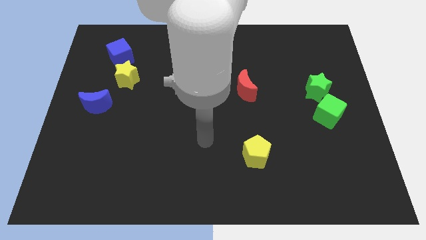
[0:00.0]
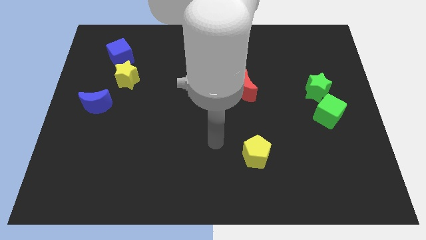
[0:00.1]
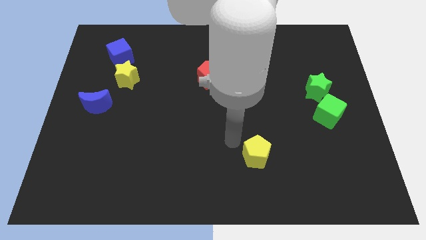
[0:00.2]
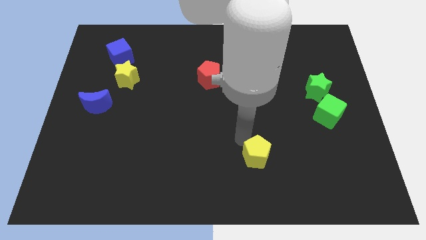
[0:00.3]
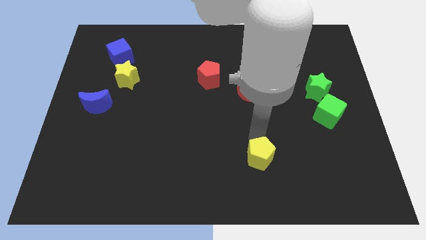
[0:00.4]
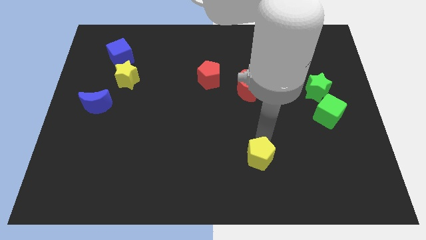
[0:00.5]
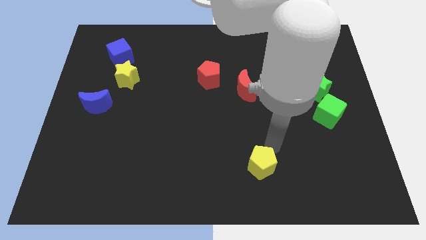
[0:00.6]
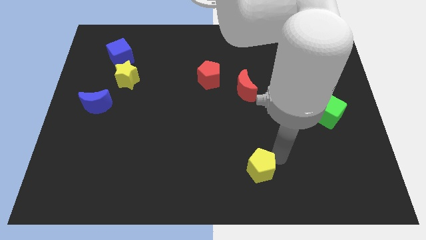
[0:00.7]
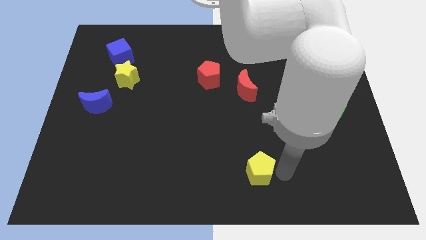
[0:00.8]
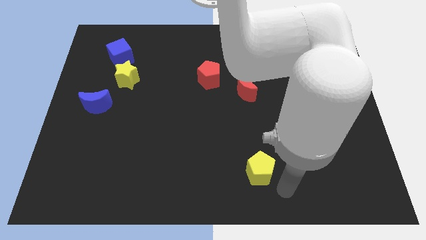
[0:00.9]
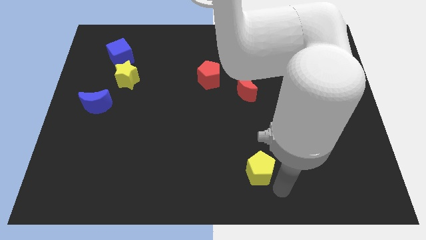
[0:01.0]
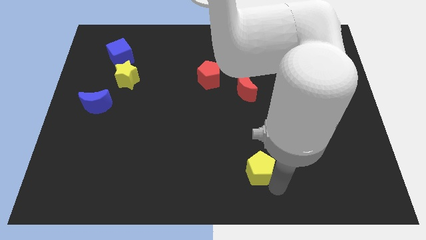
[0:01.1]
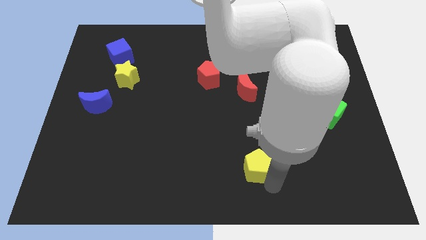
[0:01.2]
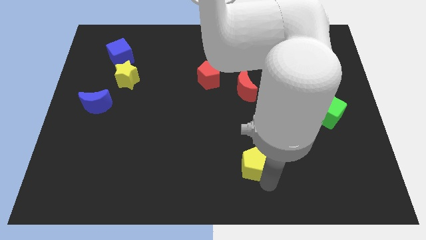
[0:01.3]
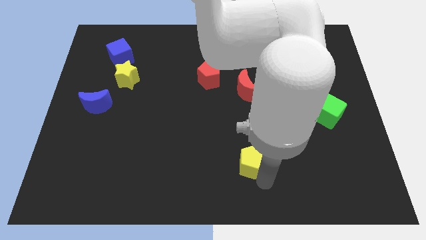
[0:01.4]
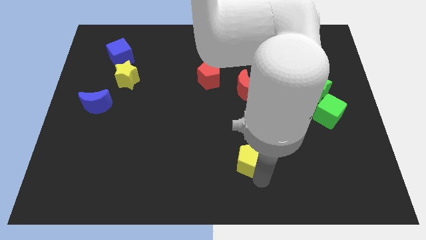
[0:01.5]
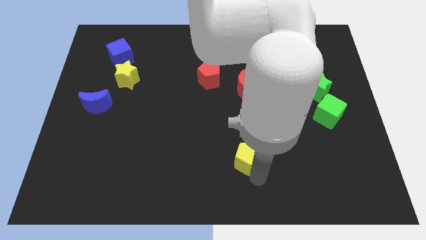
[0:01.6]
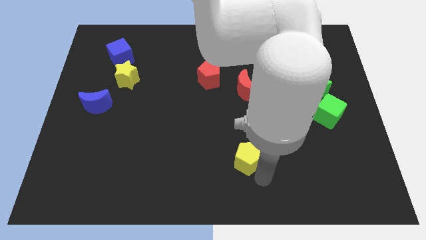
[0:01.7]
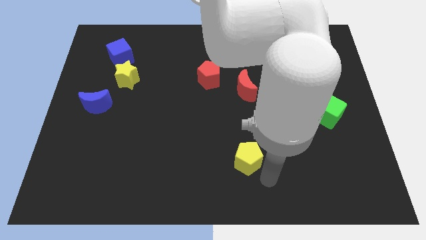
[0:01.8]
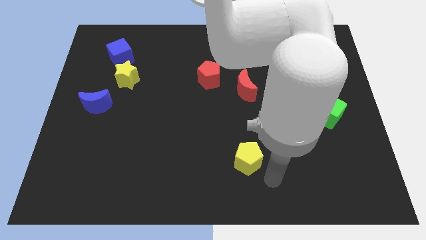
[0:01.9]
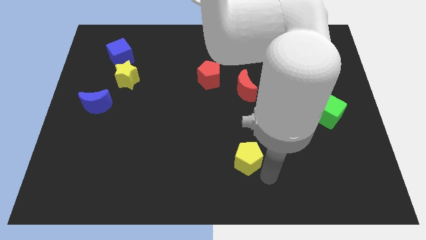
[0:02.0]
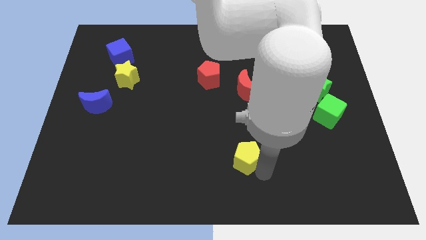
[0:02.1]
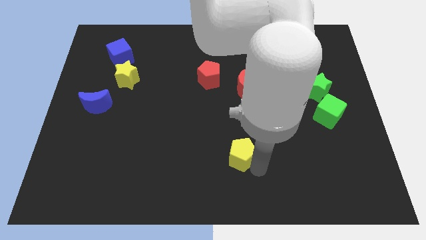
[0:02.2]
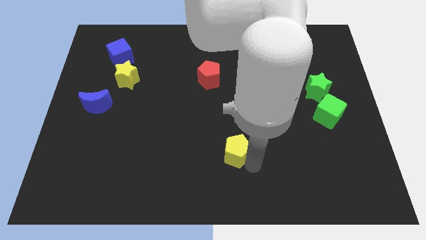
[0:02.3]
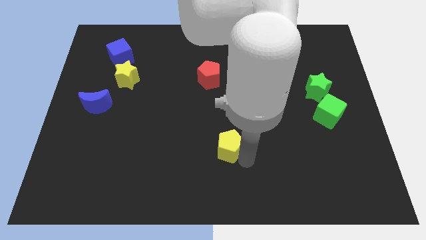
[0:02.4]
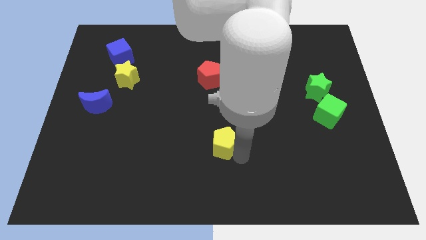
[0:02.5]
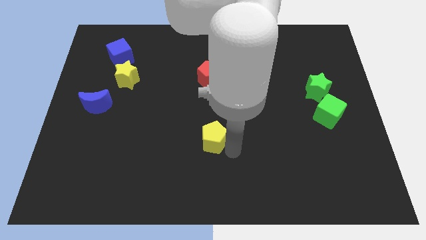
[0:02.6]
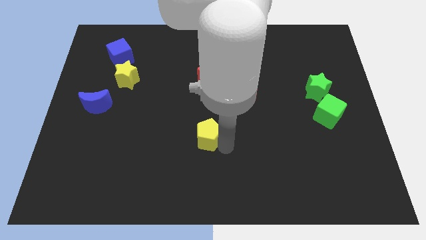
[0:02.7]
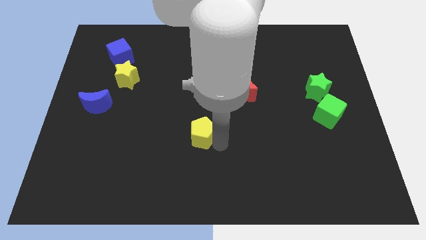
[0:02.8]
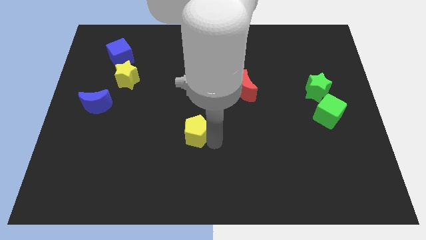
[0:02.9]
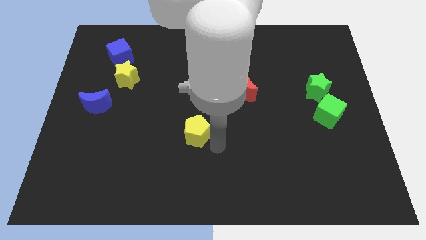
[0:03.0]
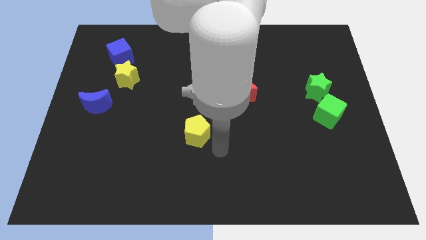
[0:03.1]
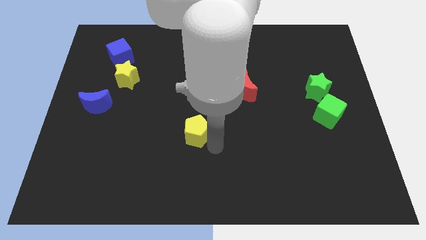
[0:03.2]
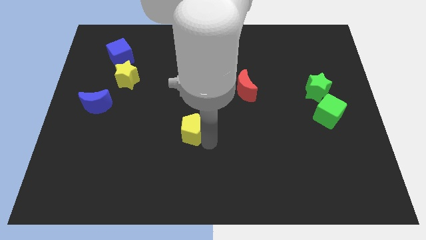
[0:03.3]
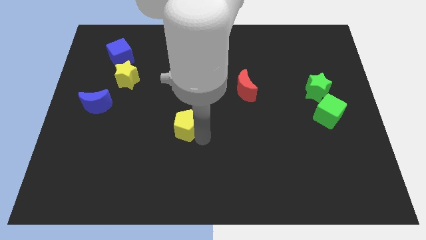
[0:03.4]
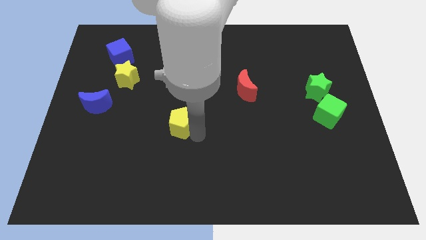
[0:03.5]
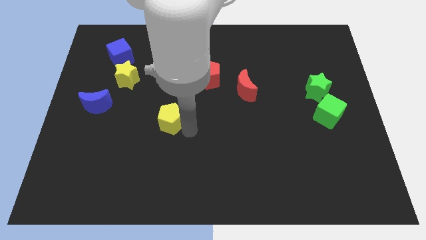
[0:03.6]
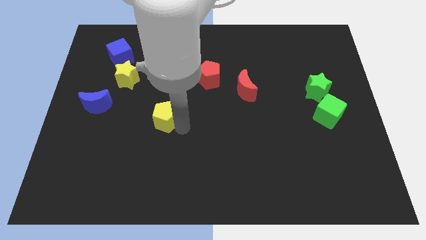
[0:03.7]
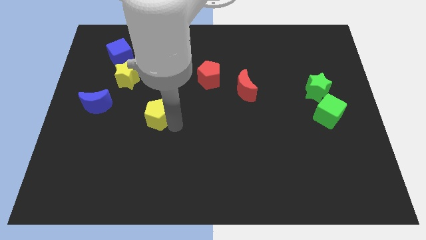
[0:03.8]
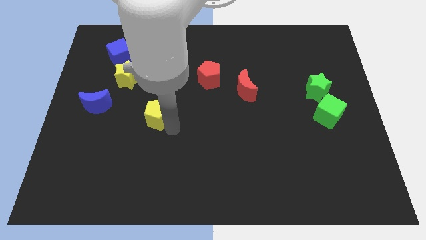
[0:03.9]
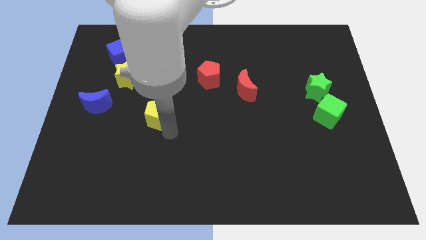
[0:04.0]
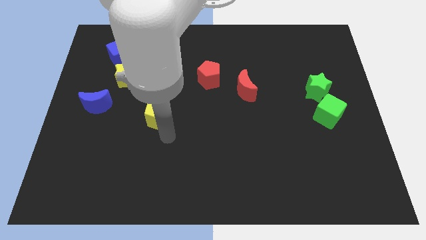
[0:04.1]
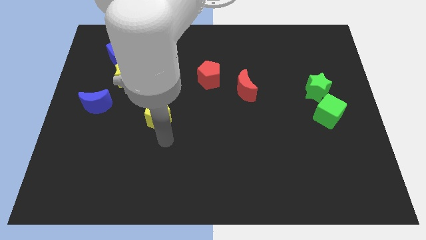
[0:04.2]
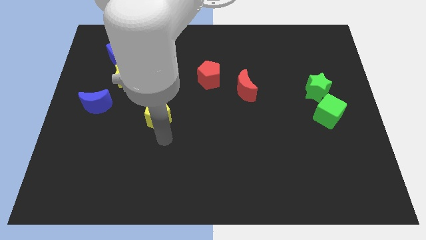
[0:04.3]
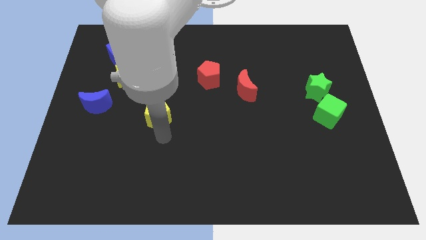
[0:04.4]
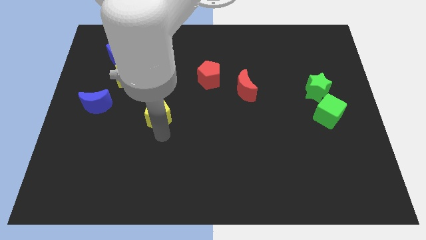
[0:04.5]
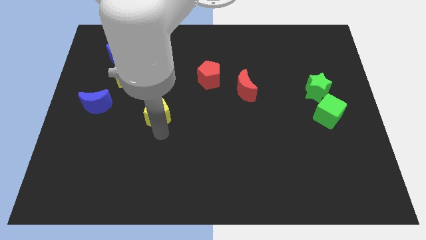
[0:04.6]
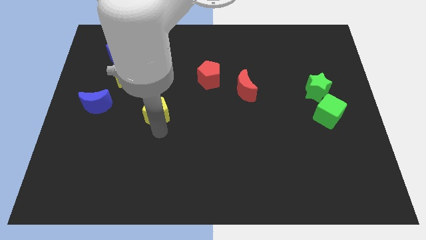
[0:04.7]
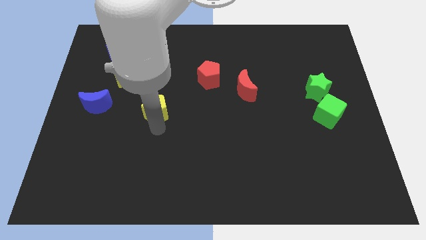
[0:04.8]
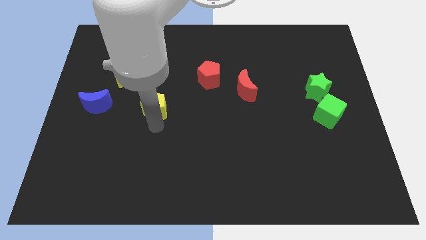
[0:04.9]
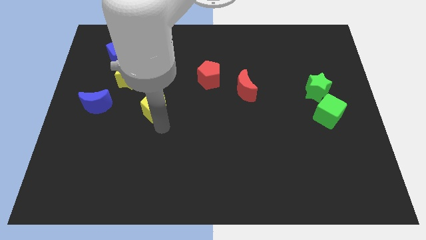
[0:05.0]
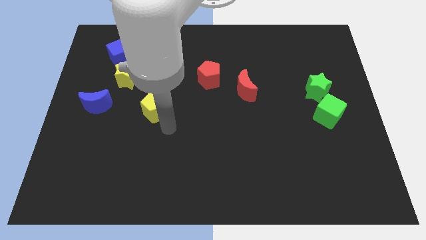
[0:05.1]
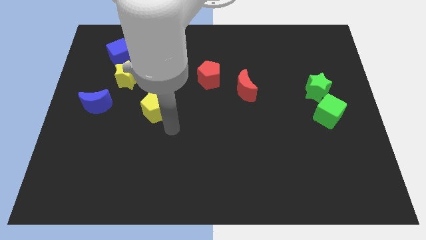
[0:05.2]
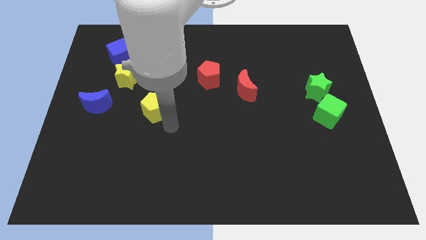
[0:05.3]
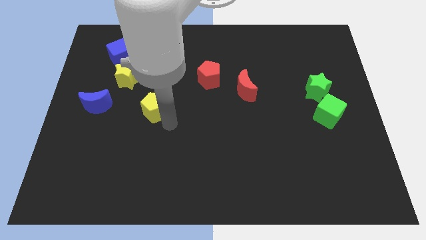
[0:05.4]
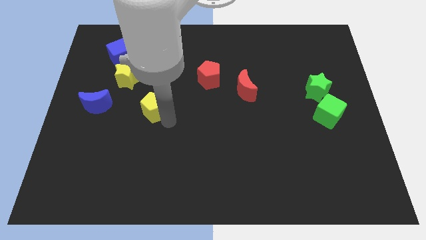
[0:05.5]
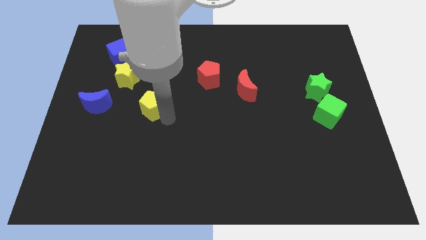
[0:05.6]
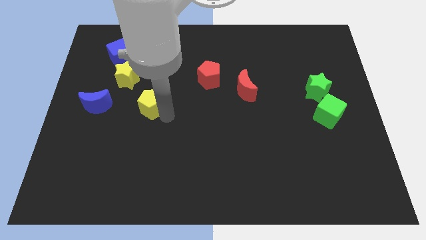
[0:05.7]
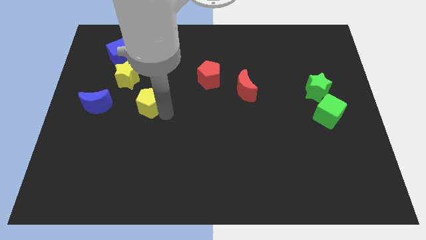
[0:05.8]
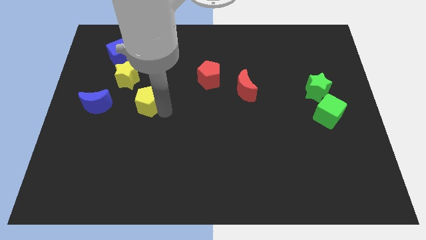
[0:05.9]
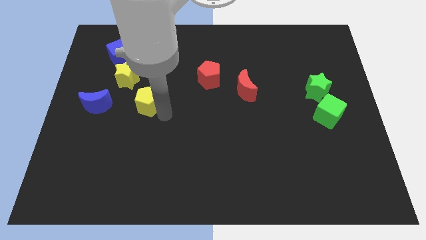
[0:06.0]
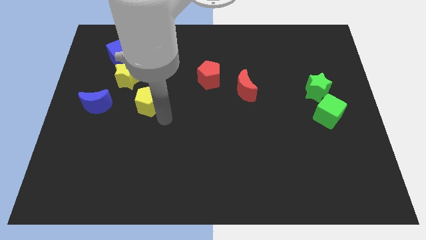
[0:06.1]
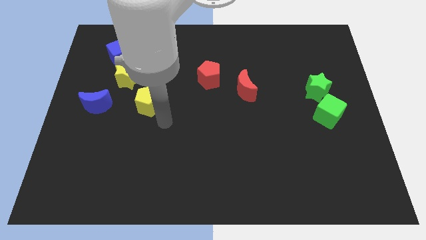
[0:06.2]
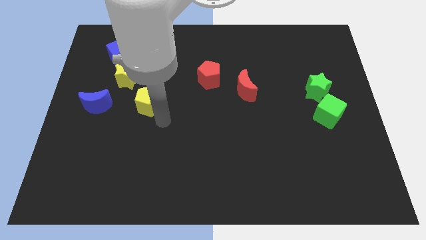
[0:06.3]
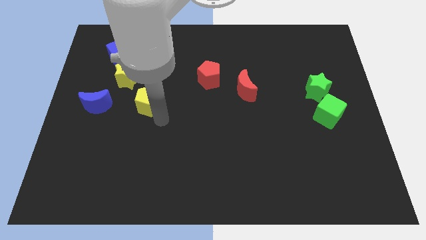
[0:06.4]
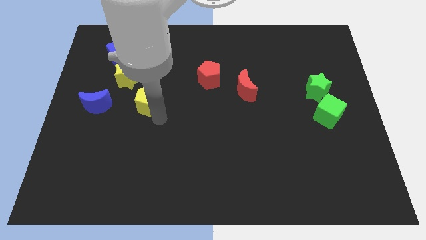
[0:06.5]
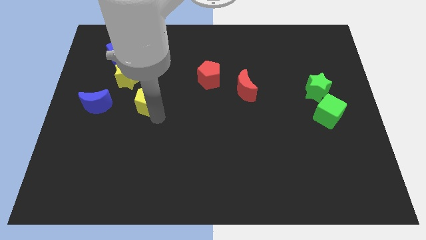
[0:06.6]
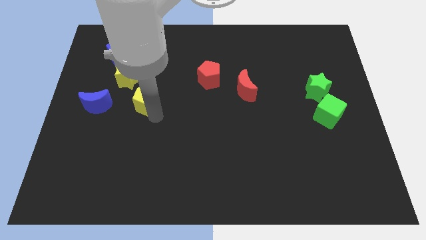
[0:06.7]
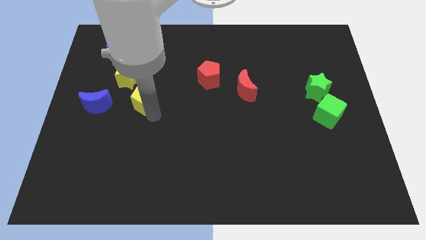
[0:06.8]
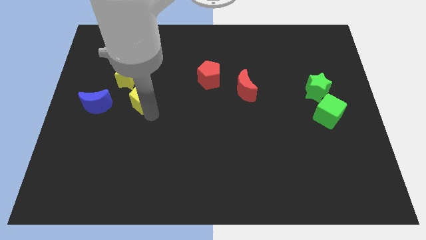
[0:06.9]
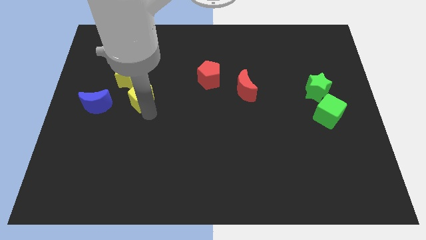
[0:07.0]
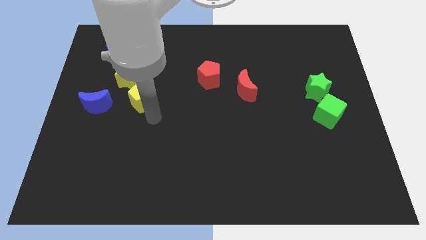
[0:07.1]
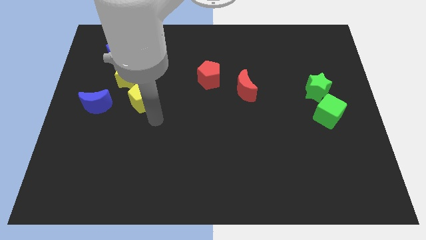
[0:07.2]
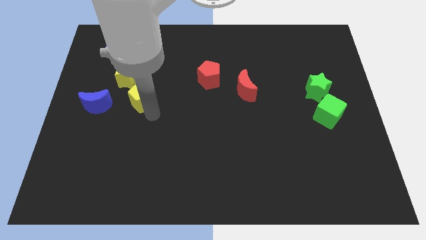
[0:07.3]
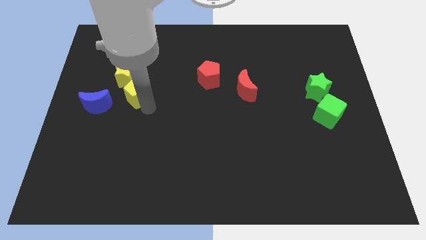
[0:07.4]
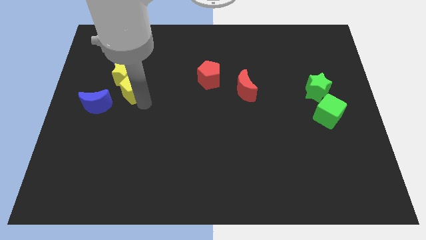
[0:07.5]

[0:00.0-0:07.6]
move the yellow pentagon towards the yellow star

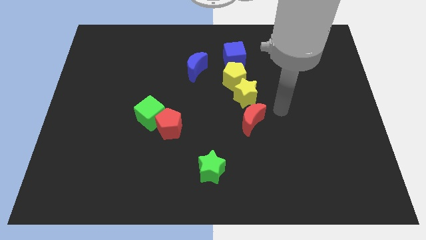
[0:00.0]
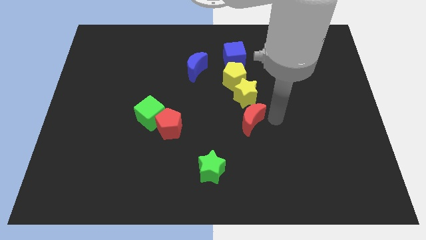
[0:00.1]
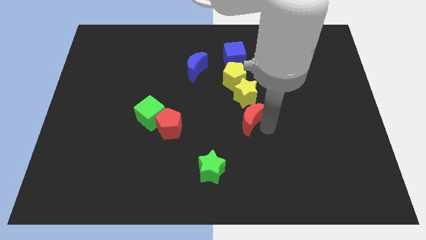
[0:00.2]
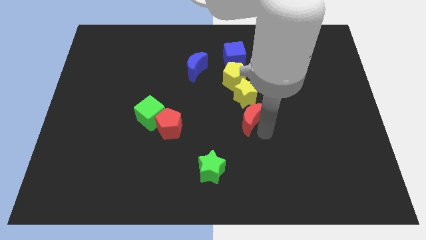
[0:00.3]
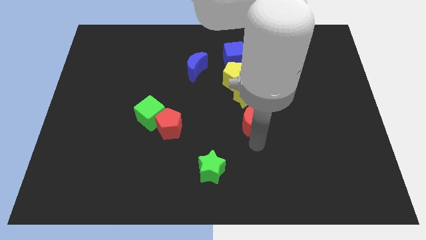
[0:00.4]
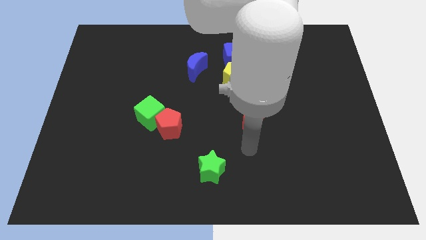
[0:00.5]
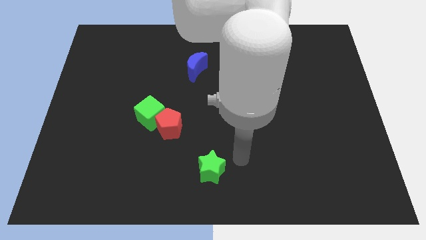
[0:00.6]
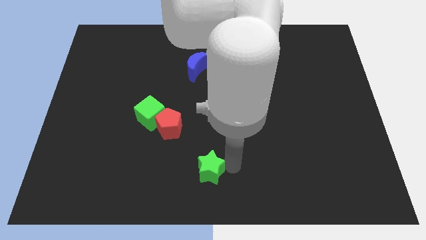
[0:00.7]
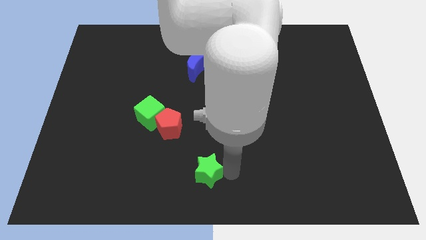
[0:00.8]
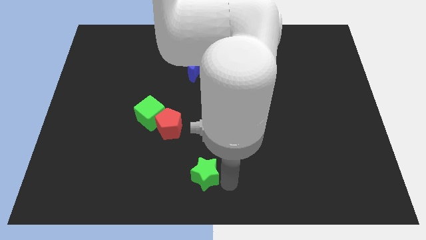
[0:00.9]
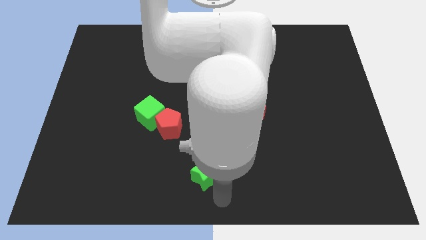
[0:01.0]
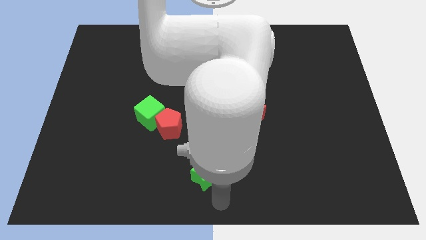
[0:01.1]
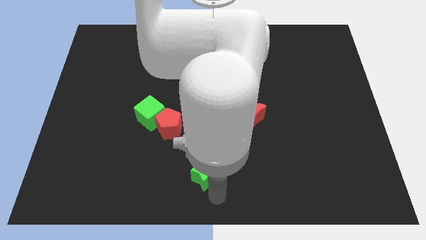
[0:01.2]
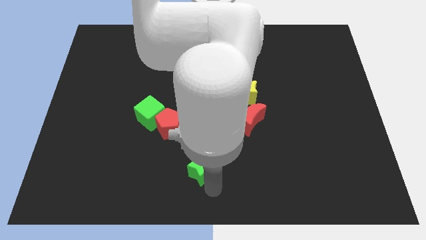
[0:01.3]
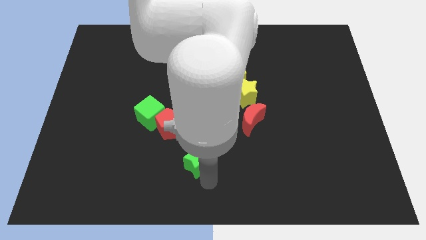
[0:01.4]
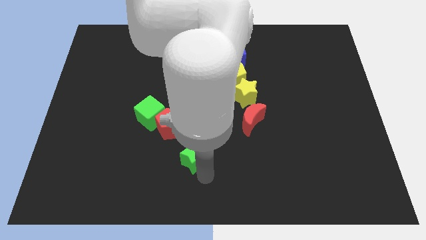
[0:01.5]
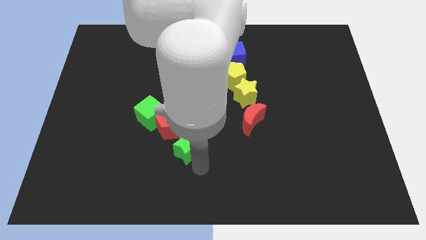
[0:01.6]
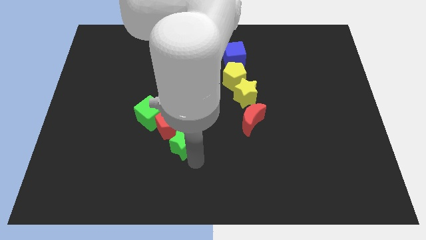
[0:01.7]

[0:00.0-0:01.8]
push the green star to the red pentagon
